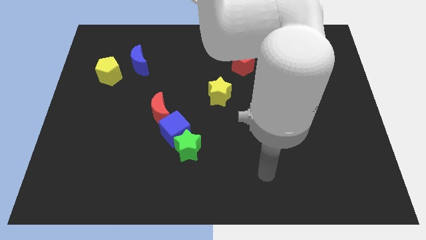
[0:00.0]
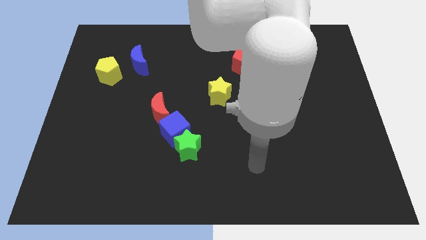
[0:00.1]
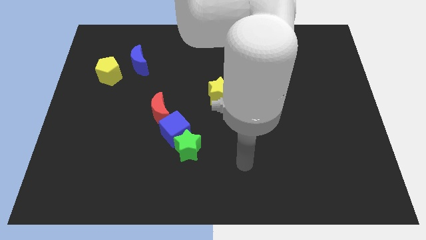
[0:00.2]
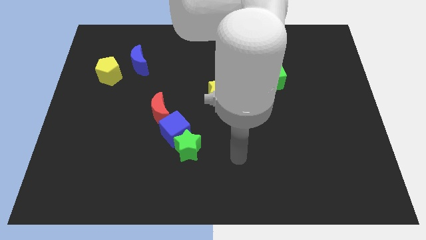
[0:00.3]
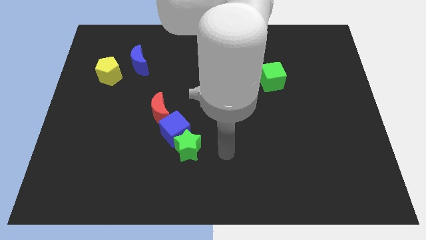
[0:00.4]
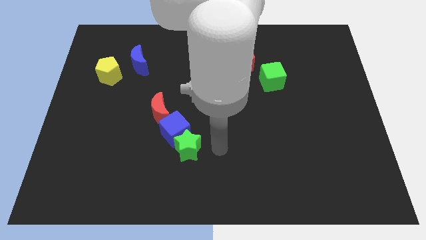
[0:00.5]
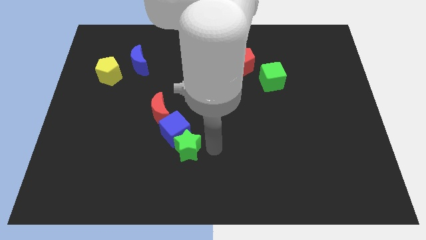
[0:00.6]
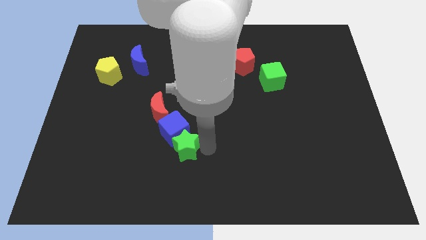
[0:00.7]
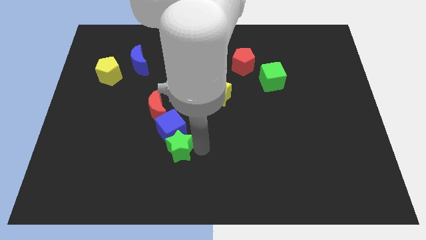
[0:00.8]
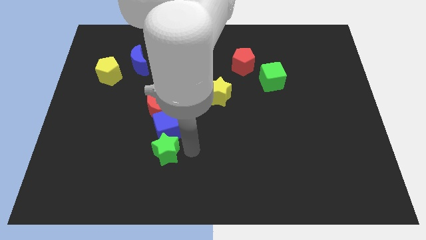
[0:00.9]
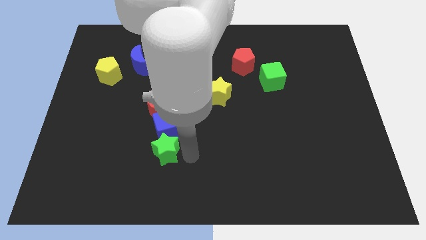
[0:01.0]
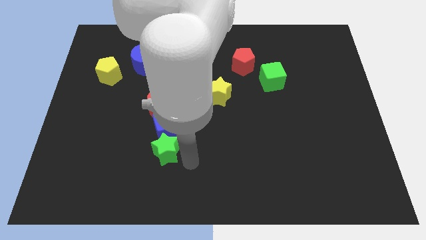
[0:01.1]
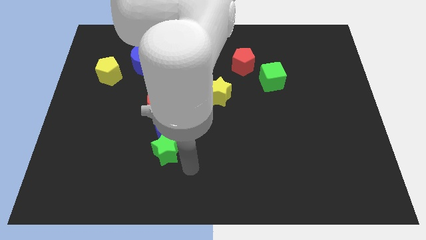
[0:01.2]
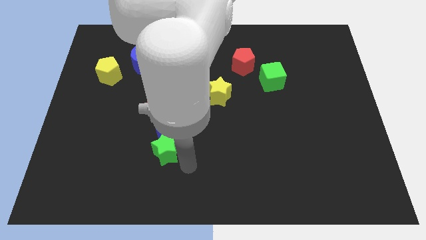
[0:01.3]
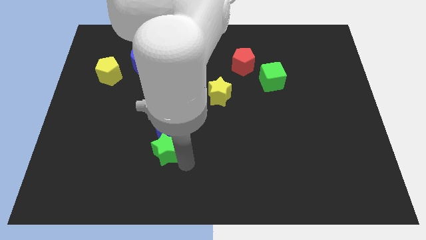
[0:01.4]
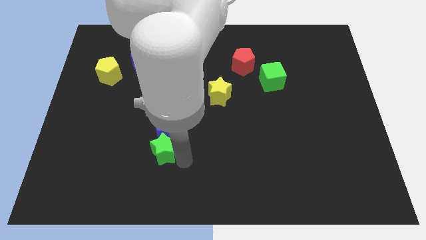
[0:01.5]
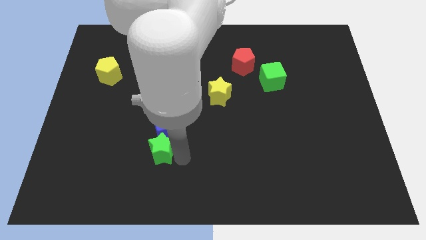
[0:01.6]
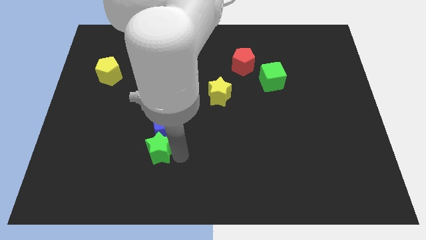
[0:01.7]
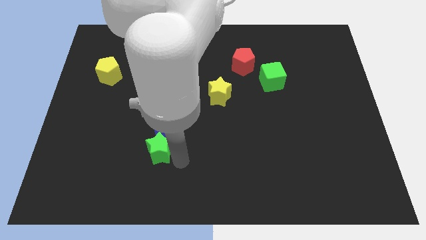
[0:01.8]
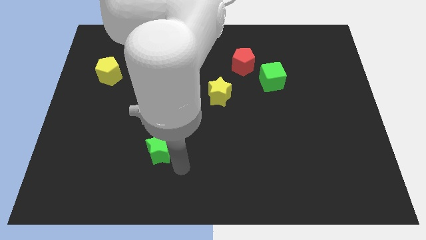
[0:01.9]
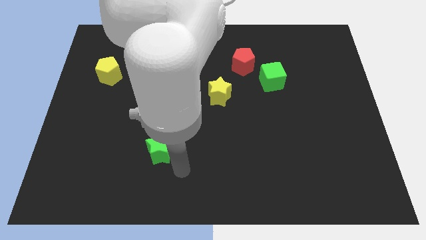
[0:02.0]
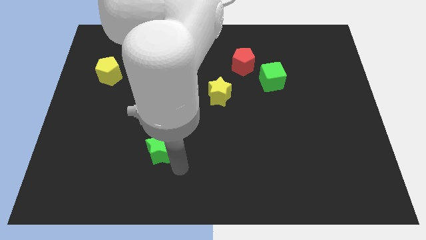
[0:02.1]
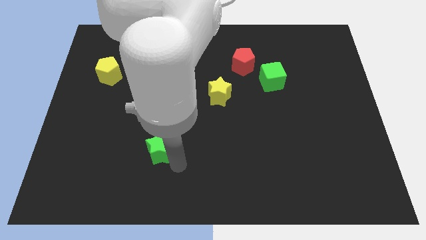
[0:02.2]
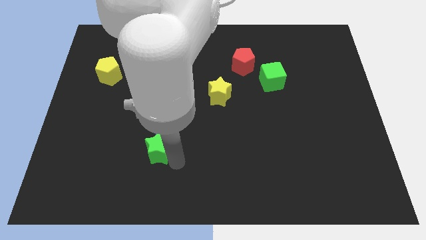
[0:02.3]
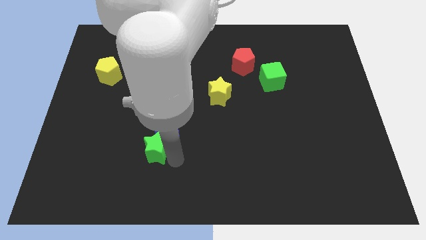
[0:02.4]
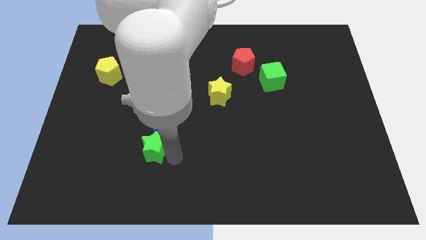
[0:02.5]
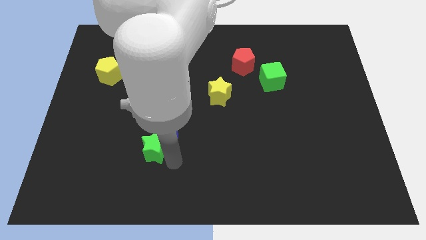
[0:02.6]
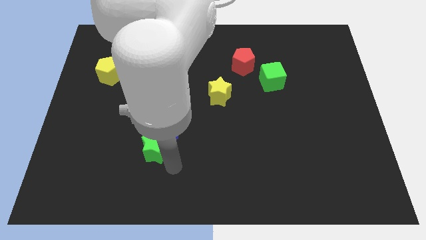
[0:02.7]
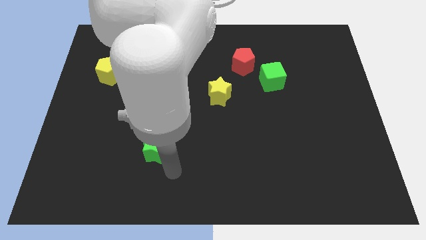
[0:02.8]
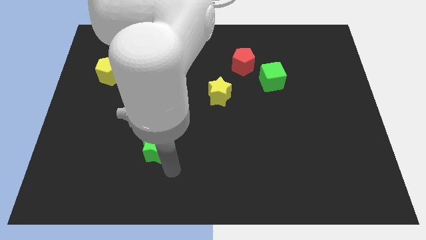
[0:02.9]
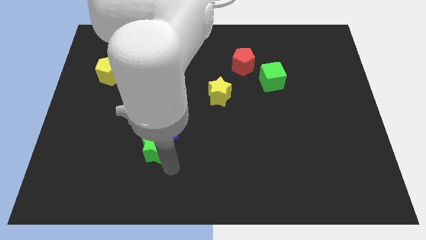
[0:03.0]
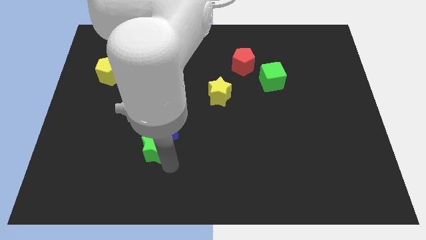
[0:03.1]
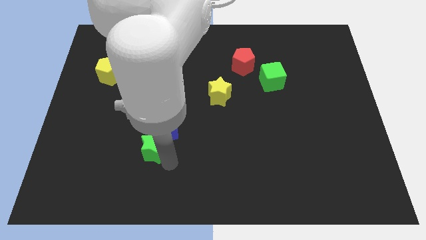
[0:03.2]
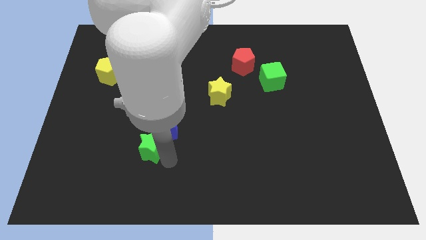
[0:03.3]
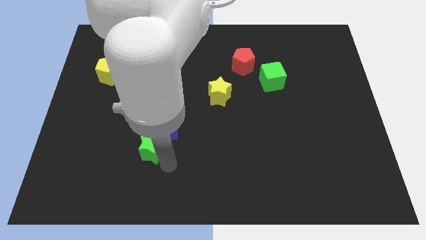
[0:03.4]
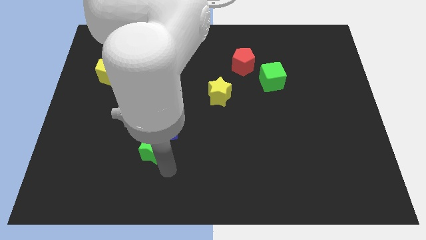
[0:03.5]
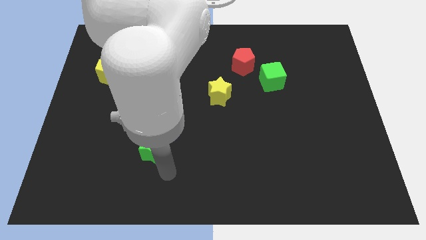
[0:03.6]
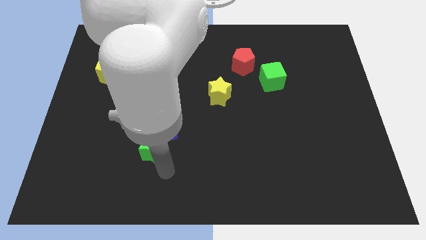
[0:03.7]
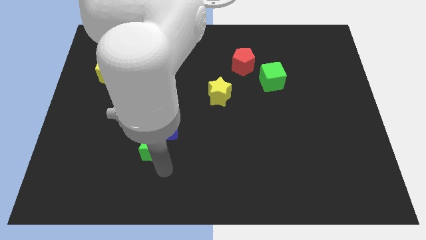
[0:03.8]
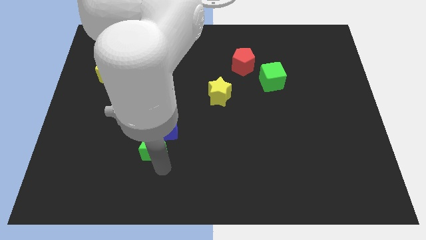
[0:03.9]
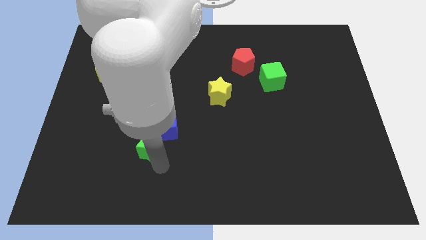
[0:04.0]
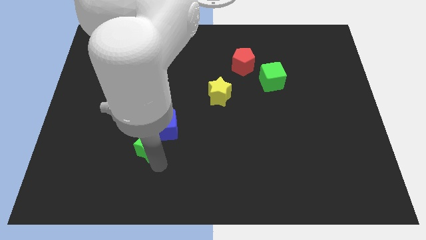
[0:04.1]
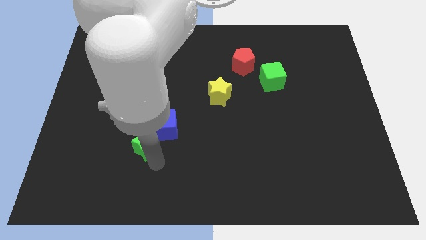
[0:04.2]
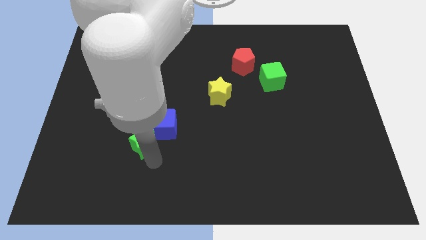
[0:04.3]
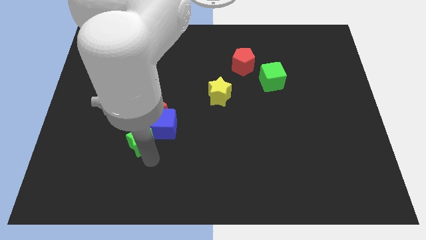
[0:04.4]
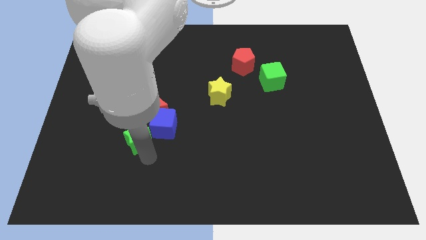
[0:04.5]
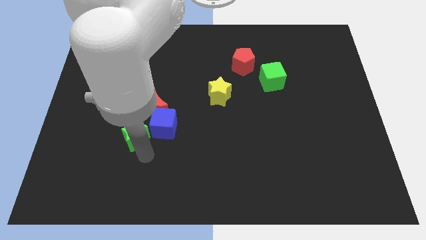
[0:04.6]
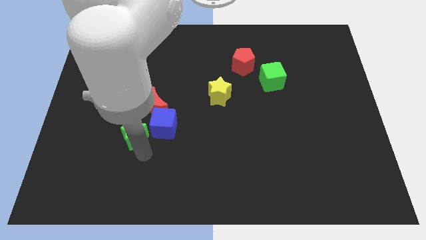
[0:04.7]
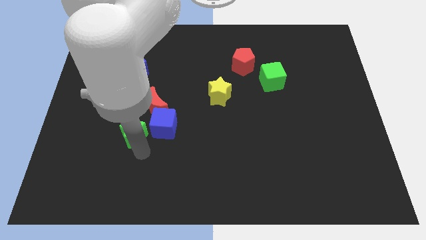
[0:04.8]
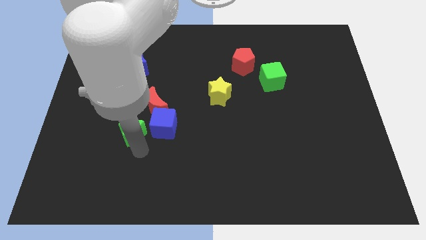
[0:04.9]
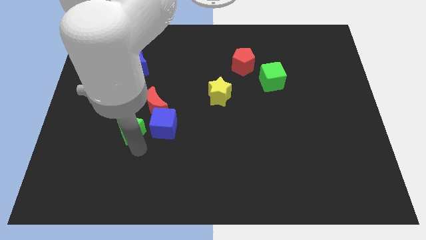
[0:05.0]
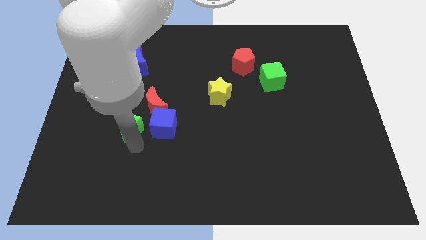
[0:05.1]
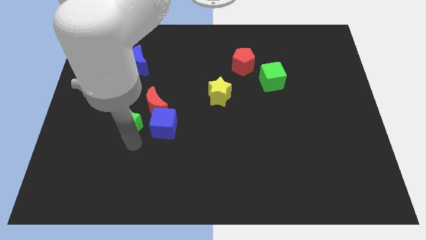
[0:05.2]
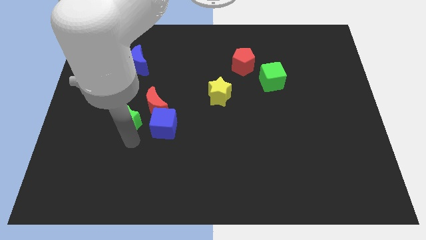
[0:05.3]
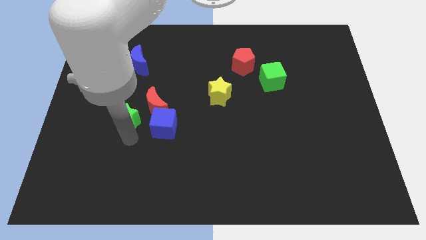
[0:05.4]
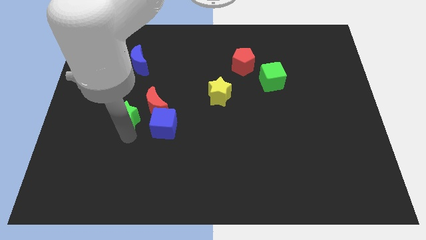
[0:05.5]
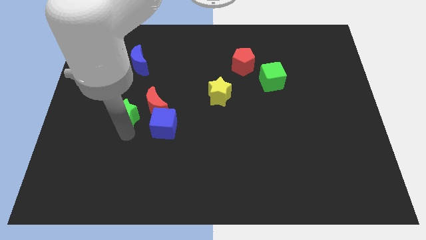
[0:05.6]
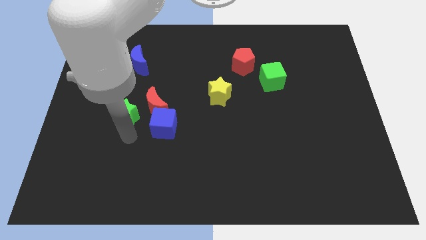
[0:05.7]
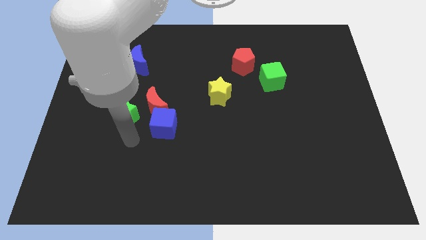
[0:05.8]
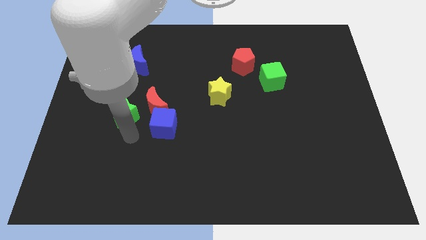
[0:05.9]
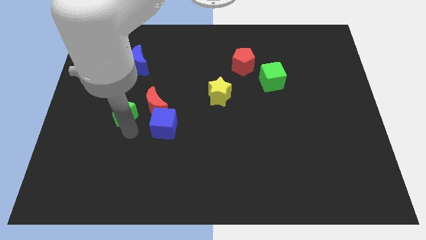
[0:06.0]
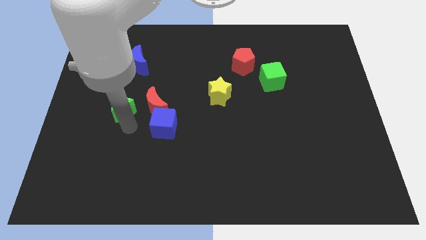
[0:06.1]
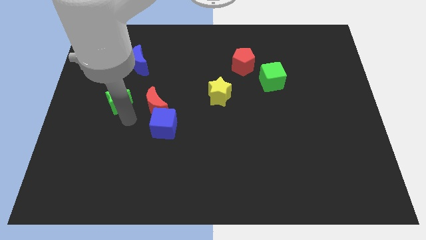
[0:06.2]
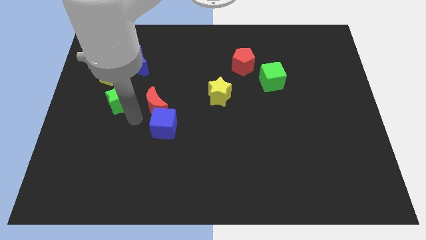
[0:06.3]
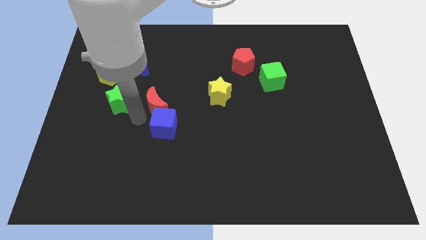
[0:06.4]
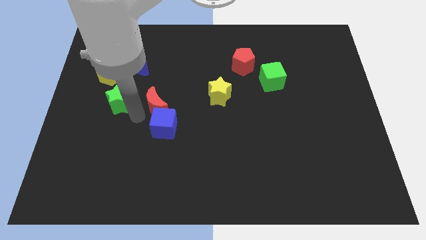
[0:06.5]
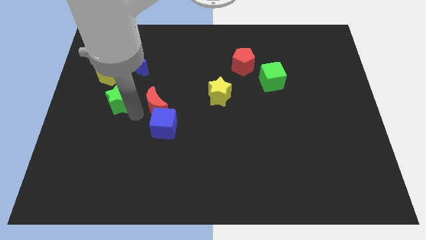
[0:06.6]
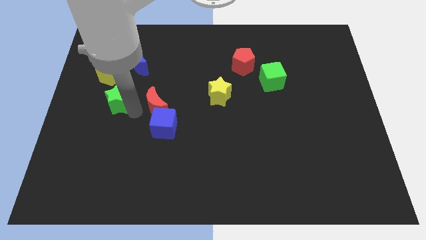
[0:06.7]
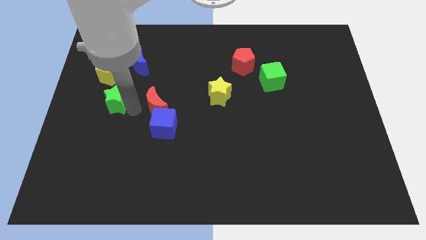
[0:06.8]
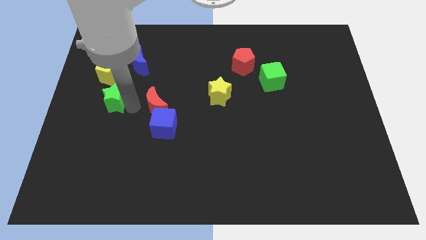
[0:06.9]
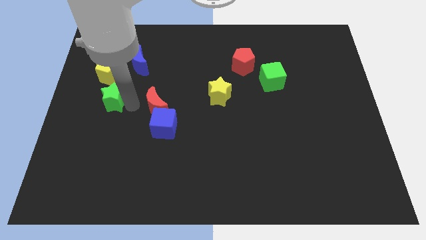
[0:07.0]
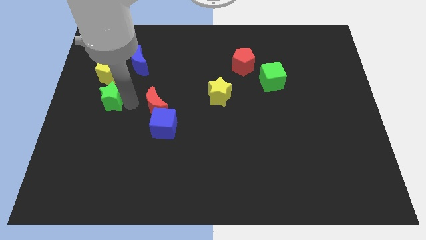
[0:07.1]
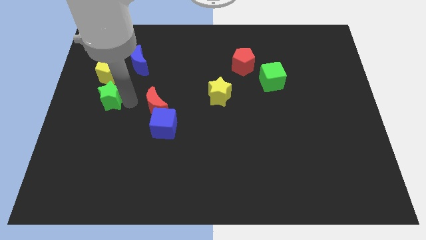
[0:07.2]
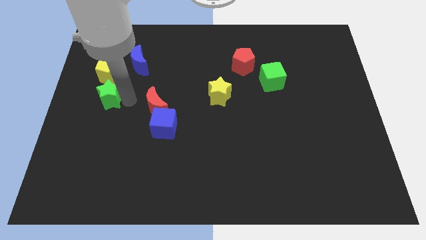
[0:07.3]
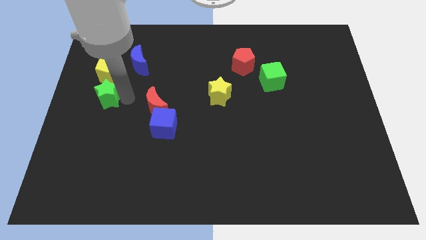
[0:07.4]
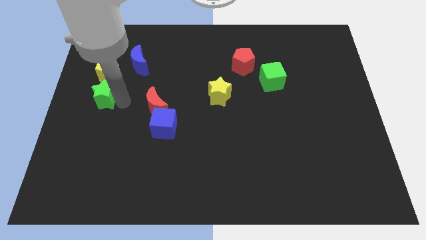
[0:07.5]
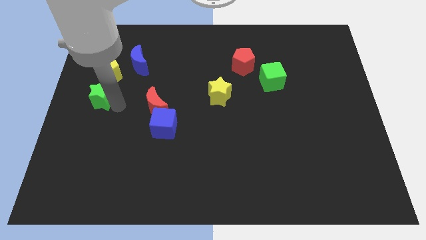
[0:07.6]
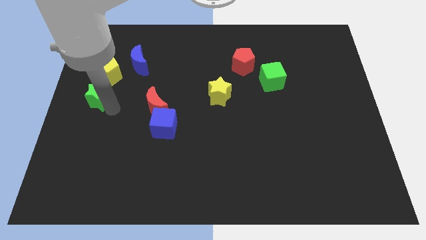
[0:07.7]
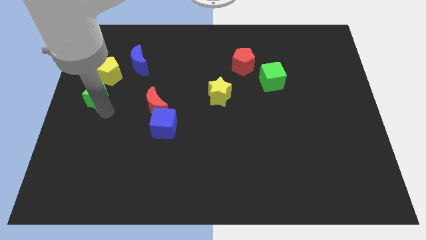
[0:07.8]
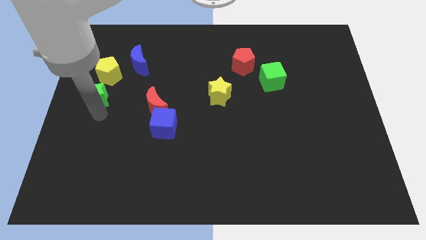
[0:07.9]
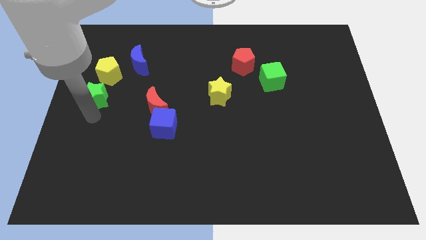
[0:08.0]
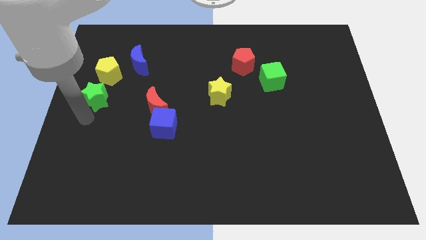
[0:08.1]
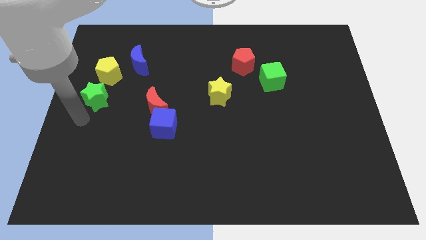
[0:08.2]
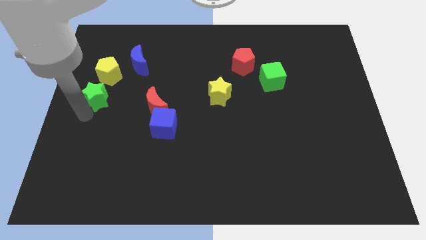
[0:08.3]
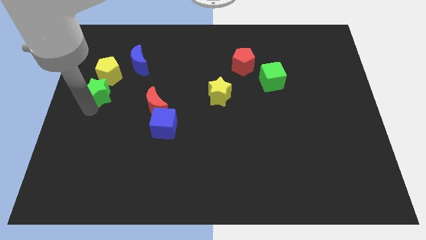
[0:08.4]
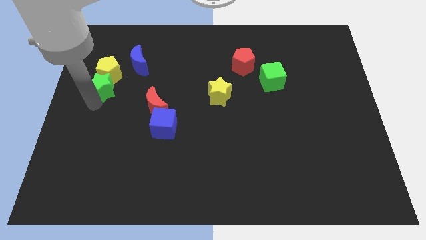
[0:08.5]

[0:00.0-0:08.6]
move the green star to the bottom left of the blue moon

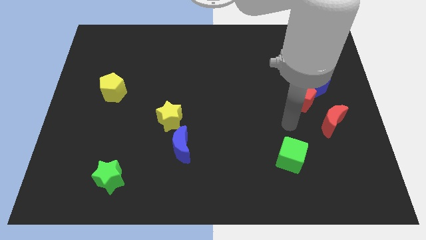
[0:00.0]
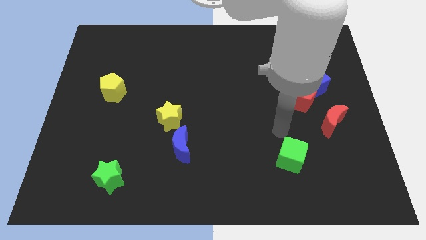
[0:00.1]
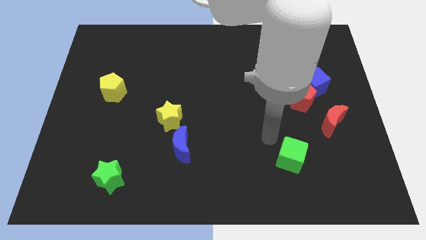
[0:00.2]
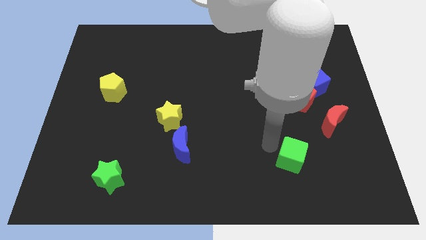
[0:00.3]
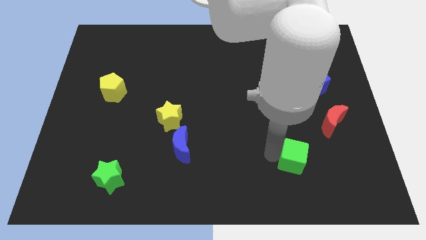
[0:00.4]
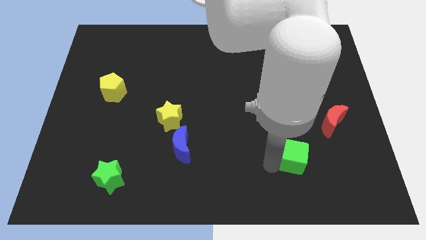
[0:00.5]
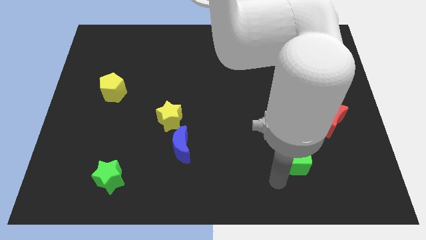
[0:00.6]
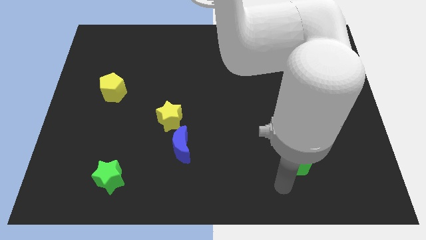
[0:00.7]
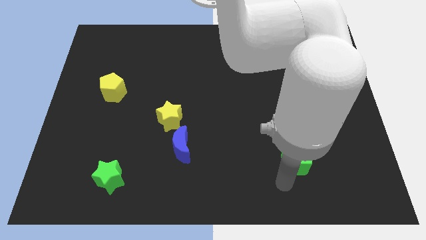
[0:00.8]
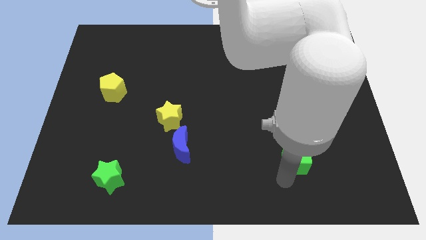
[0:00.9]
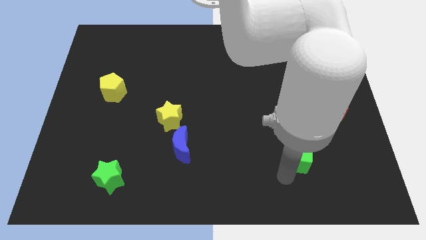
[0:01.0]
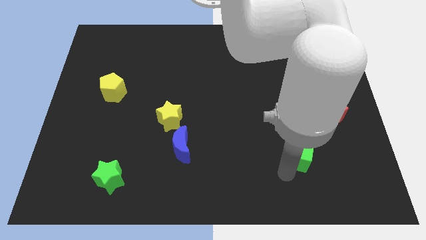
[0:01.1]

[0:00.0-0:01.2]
slide the green cube to the bottom side of the red pentagon
